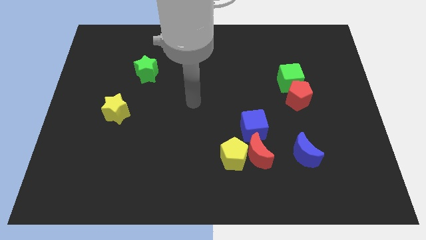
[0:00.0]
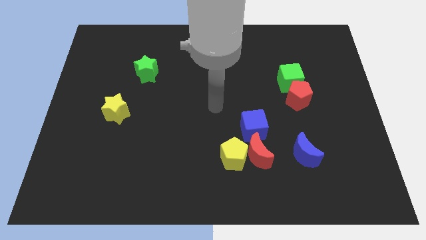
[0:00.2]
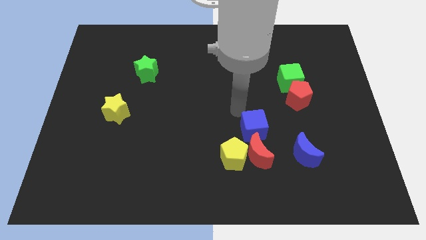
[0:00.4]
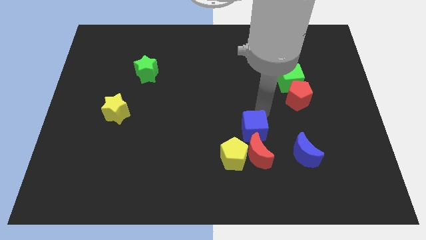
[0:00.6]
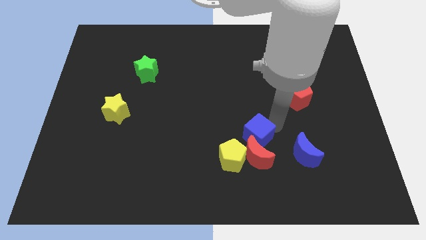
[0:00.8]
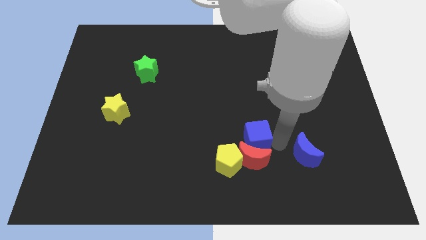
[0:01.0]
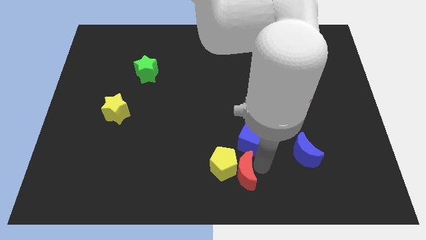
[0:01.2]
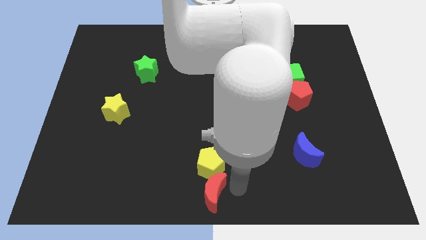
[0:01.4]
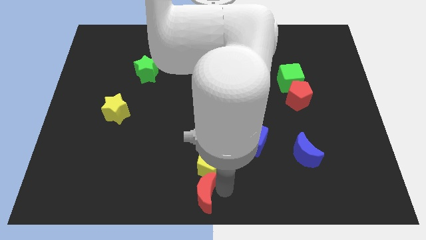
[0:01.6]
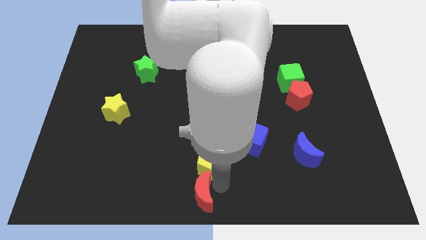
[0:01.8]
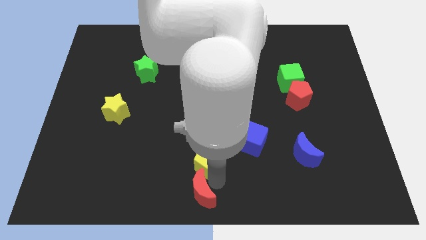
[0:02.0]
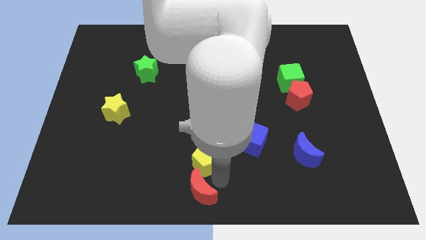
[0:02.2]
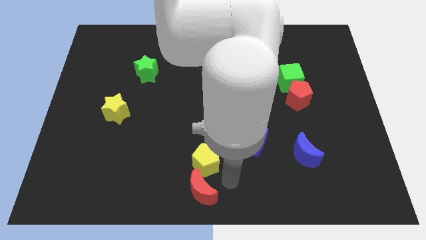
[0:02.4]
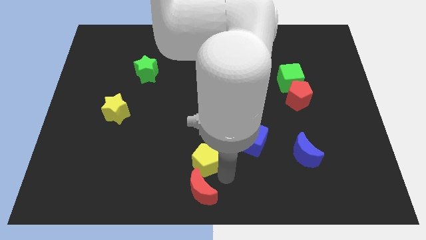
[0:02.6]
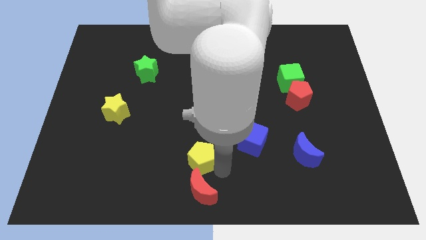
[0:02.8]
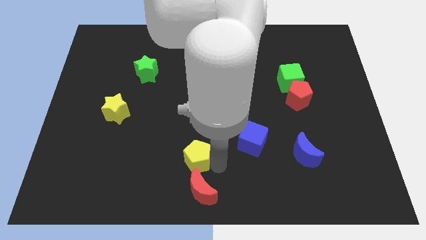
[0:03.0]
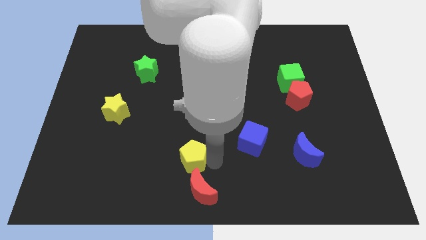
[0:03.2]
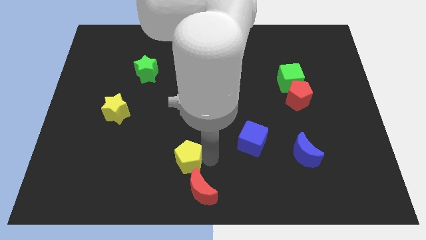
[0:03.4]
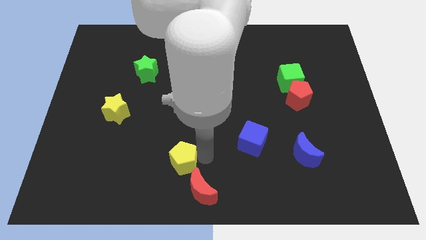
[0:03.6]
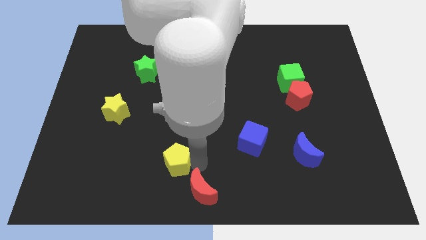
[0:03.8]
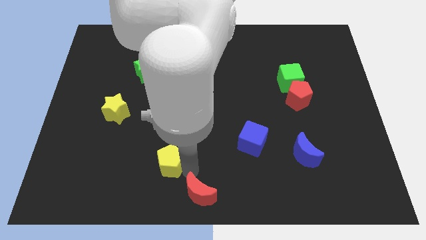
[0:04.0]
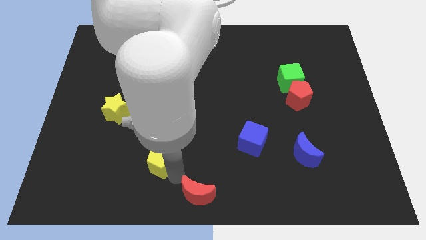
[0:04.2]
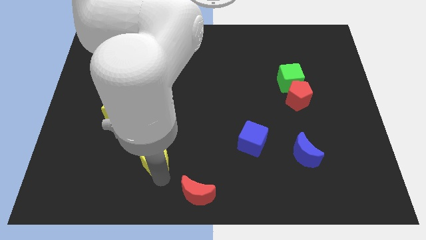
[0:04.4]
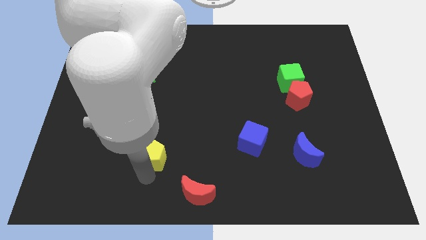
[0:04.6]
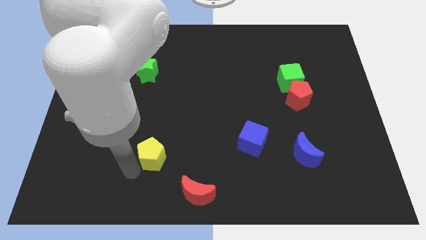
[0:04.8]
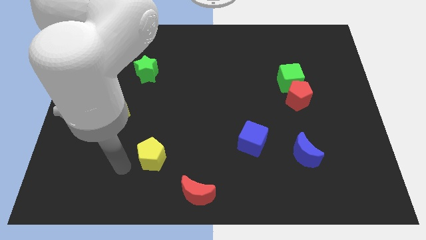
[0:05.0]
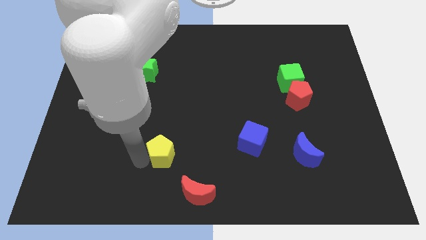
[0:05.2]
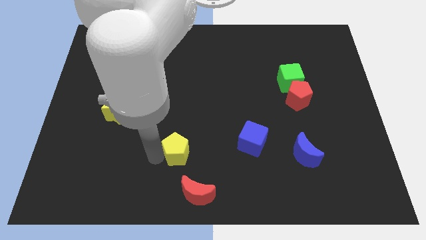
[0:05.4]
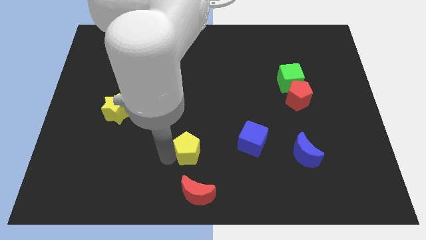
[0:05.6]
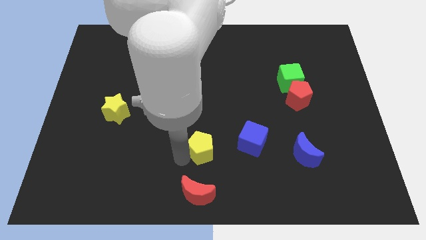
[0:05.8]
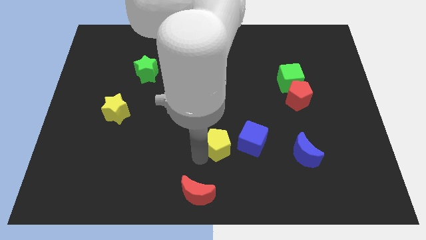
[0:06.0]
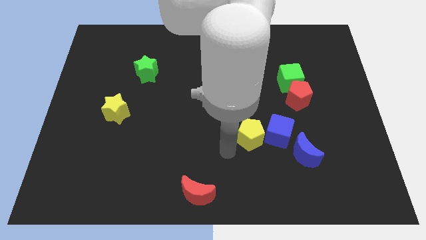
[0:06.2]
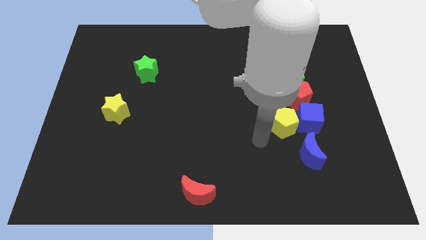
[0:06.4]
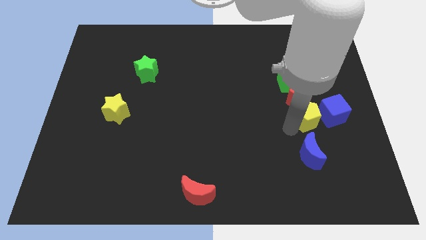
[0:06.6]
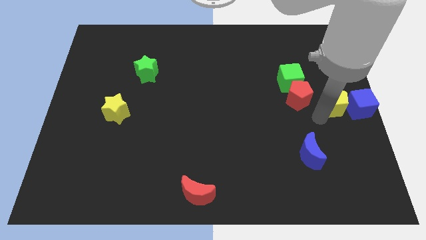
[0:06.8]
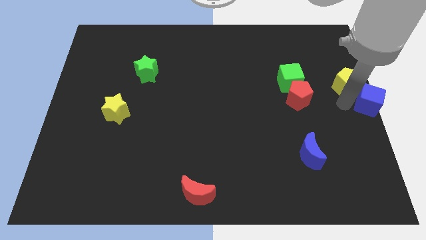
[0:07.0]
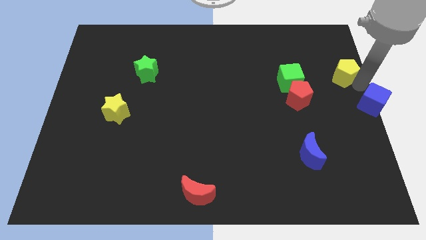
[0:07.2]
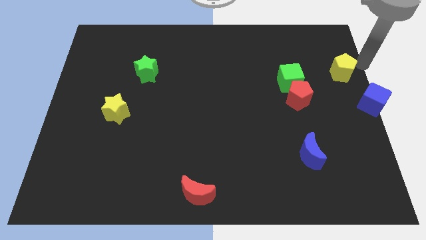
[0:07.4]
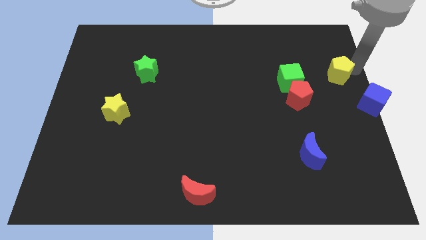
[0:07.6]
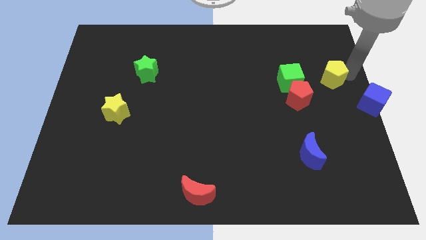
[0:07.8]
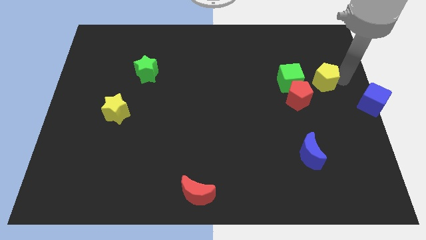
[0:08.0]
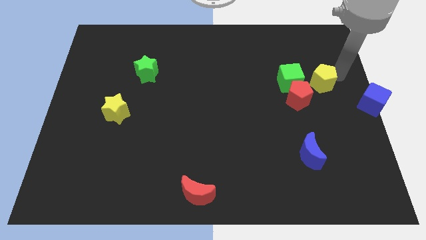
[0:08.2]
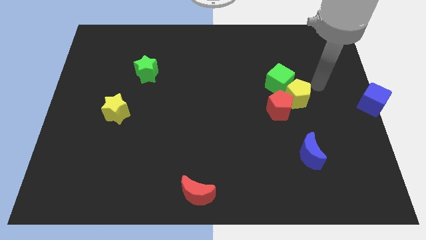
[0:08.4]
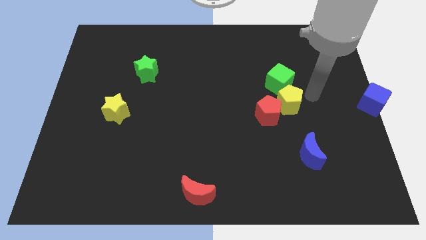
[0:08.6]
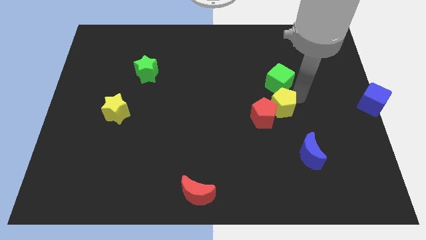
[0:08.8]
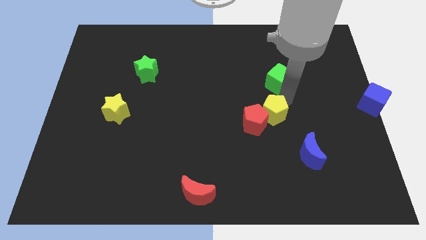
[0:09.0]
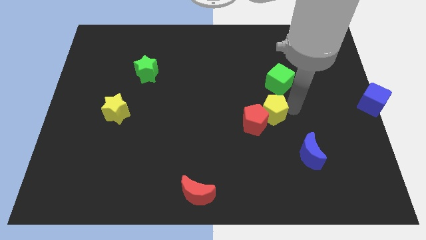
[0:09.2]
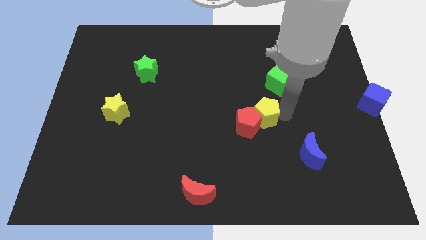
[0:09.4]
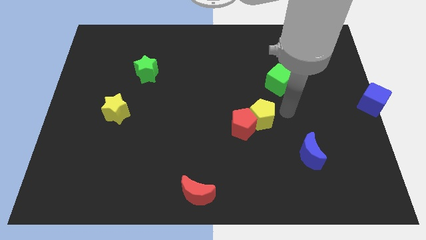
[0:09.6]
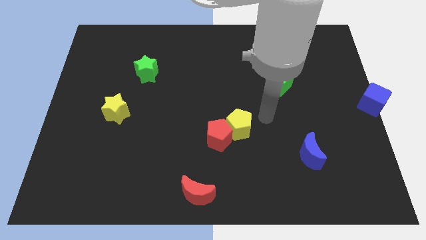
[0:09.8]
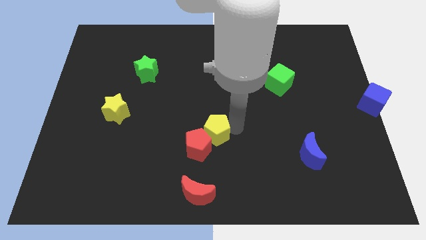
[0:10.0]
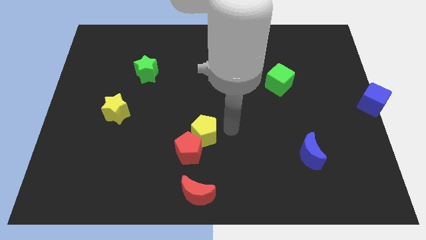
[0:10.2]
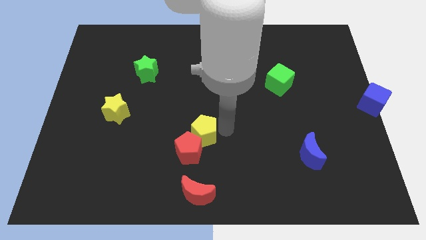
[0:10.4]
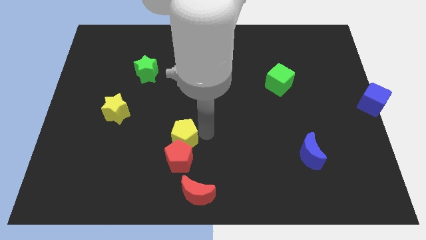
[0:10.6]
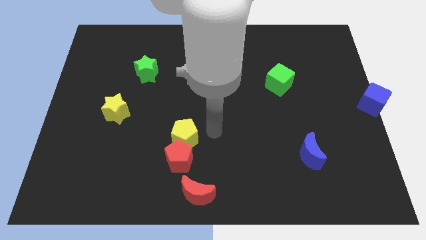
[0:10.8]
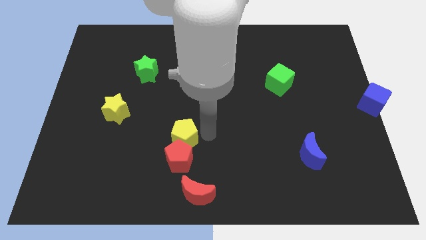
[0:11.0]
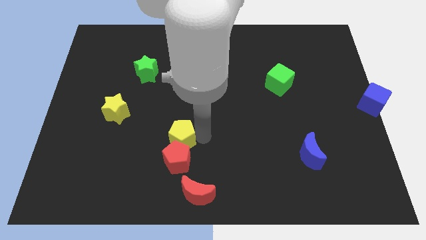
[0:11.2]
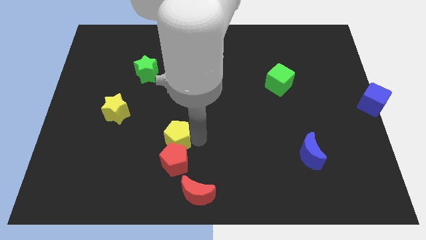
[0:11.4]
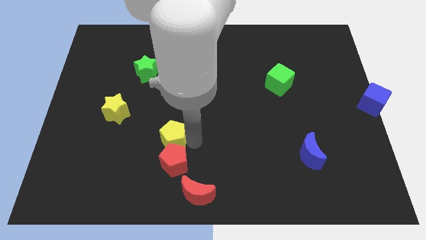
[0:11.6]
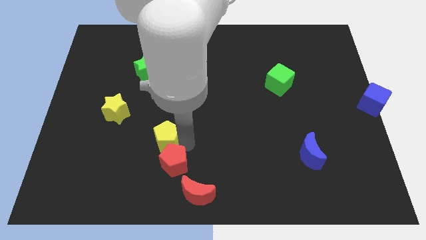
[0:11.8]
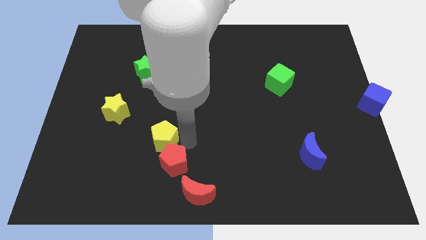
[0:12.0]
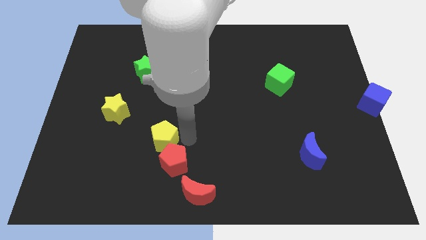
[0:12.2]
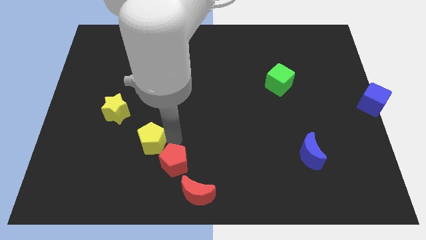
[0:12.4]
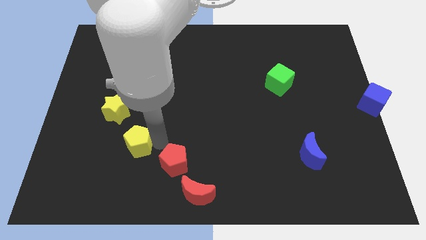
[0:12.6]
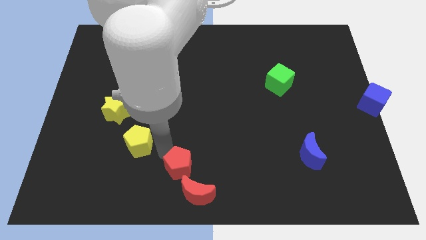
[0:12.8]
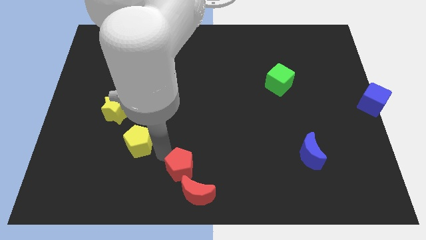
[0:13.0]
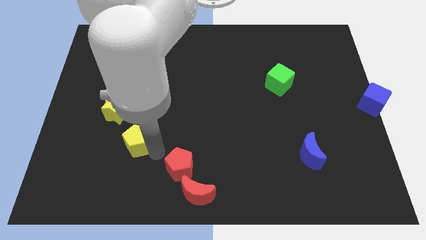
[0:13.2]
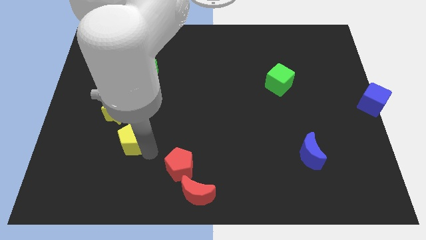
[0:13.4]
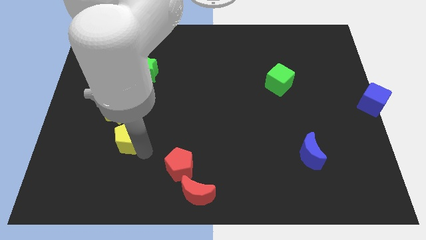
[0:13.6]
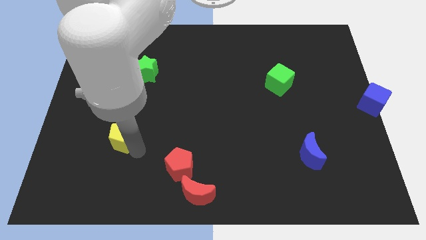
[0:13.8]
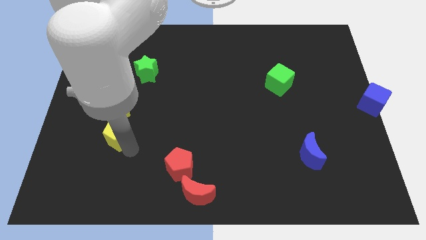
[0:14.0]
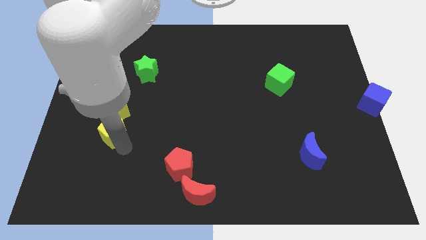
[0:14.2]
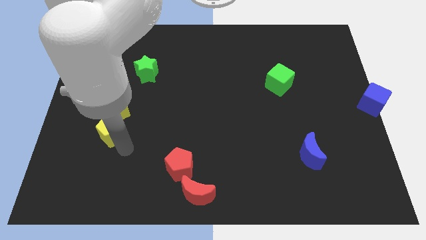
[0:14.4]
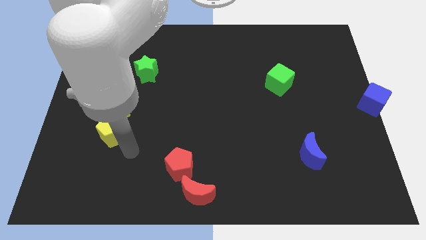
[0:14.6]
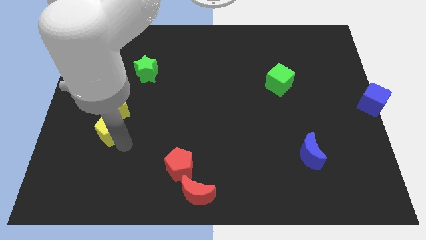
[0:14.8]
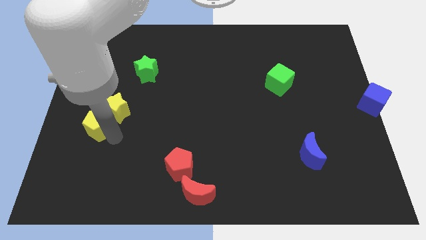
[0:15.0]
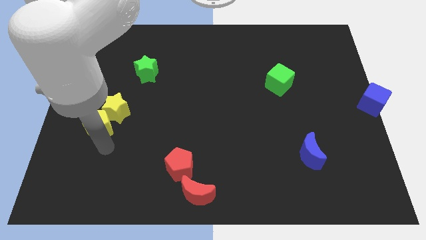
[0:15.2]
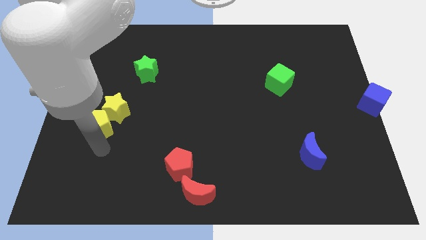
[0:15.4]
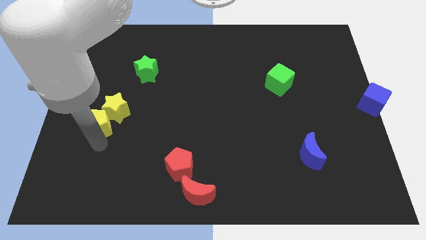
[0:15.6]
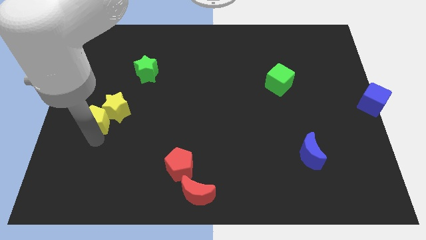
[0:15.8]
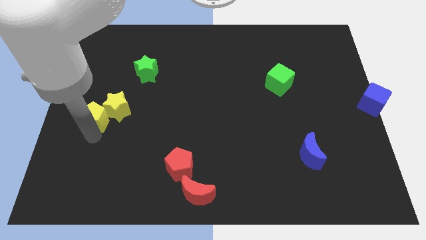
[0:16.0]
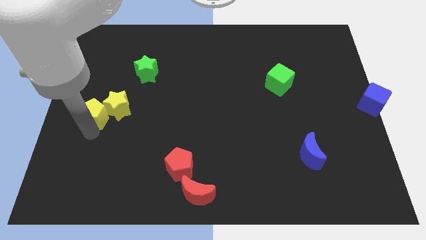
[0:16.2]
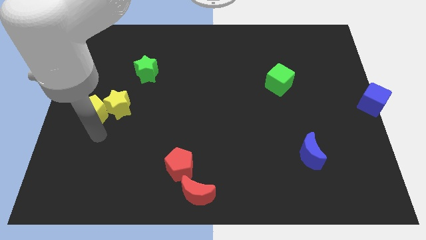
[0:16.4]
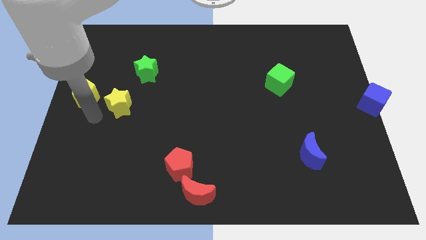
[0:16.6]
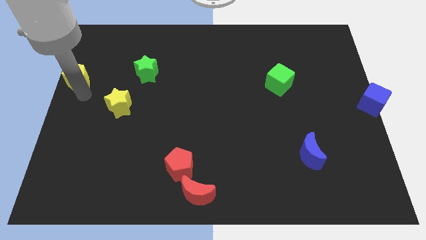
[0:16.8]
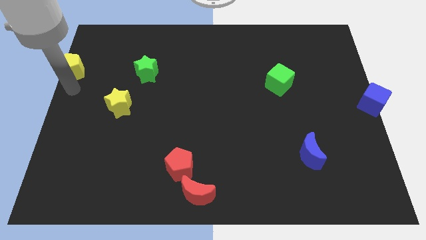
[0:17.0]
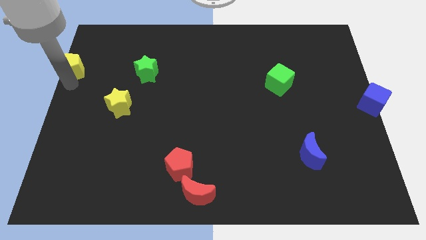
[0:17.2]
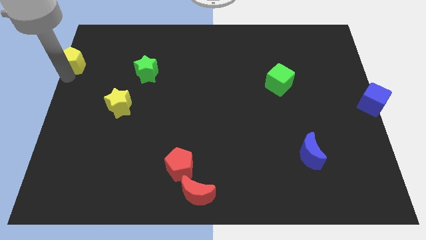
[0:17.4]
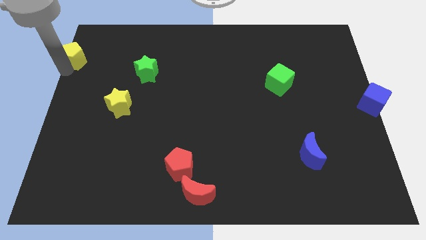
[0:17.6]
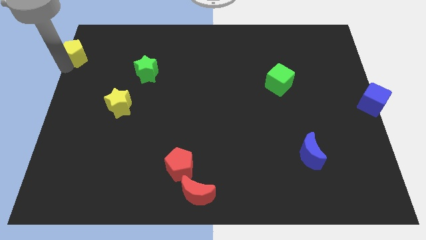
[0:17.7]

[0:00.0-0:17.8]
put the yellow pentagon to the top left of the board
